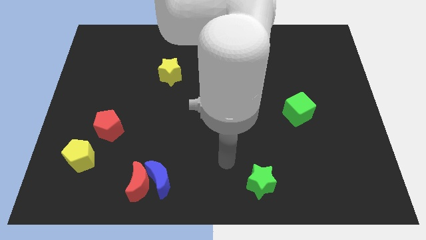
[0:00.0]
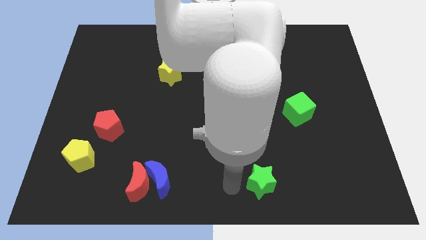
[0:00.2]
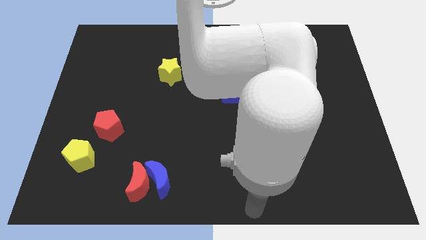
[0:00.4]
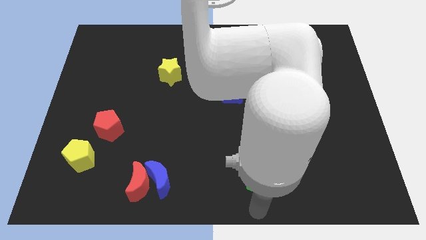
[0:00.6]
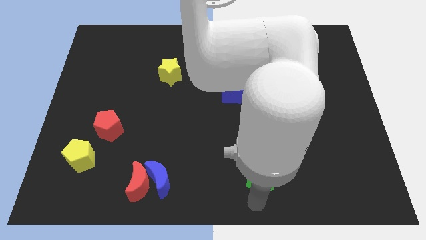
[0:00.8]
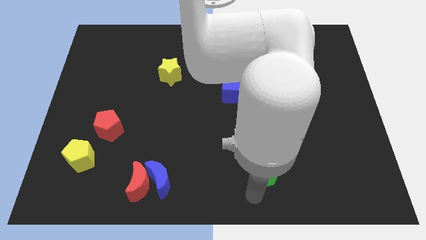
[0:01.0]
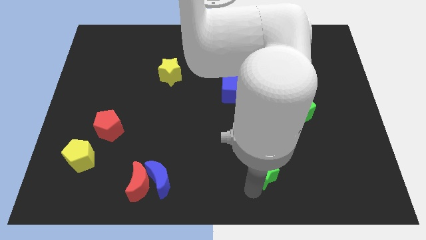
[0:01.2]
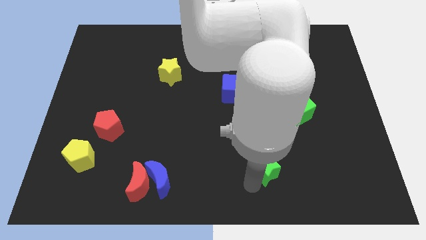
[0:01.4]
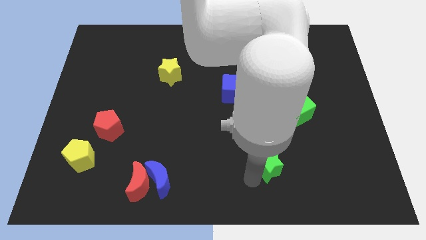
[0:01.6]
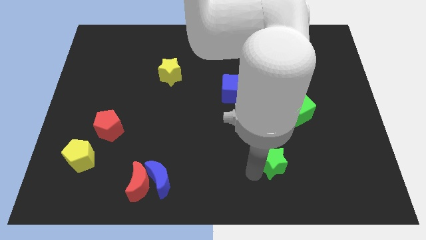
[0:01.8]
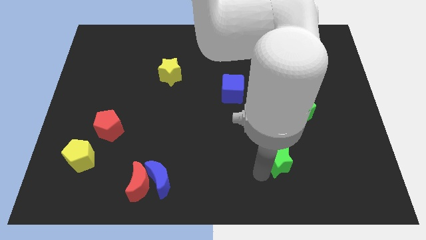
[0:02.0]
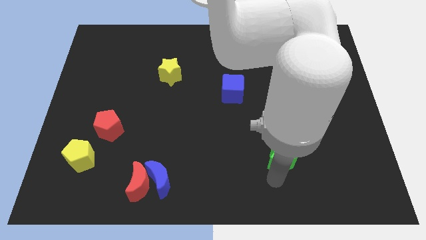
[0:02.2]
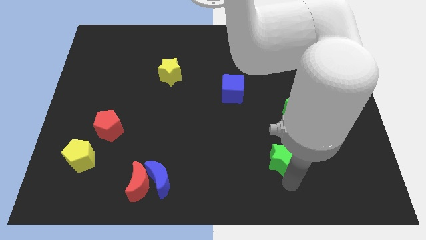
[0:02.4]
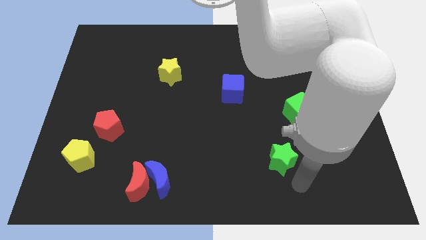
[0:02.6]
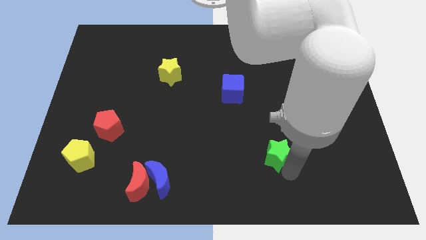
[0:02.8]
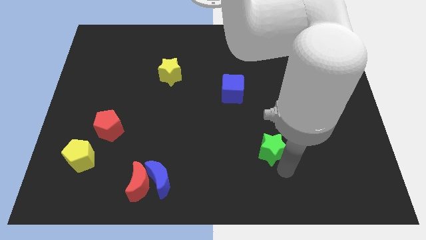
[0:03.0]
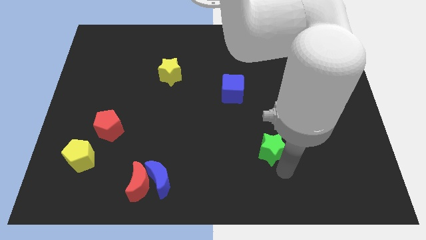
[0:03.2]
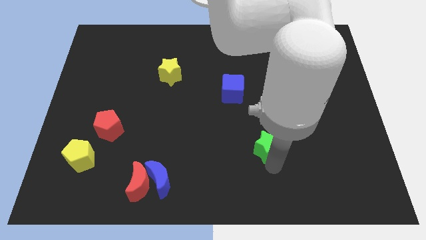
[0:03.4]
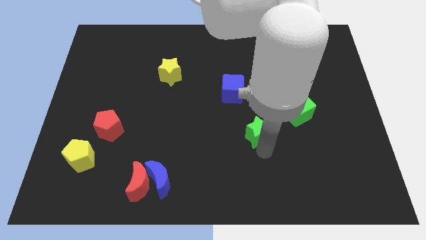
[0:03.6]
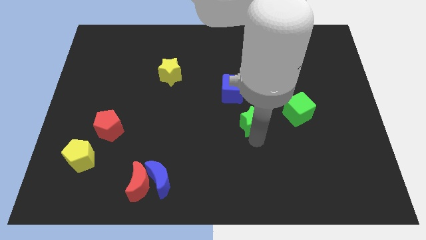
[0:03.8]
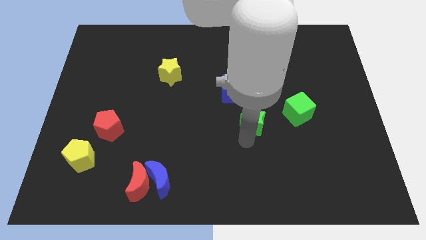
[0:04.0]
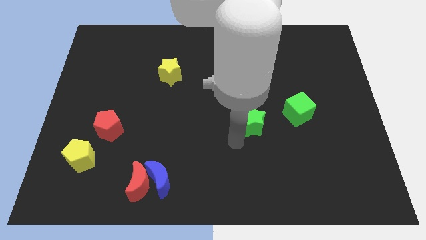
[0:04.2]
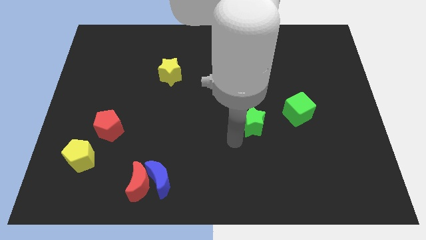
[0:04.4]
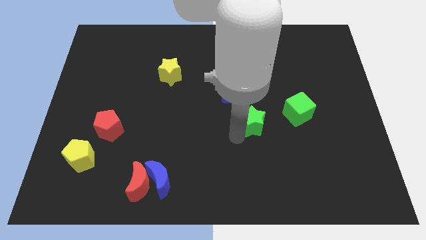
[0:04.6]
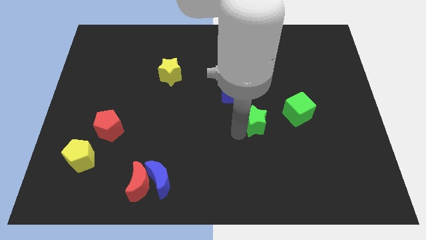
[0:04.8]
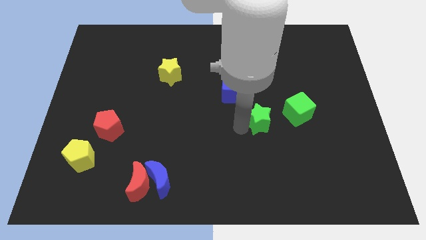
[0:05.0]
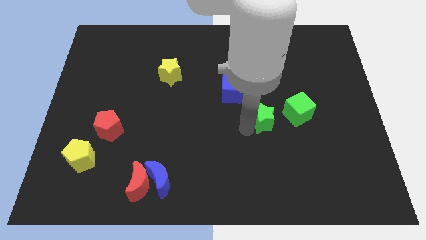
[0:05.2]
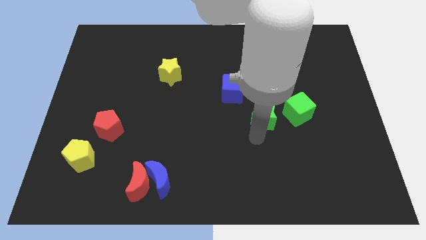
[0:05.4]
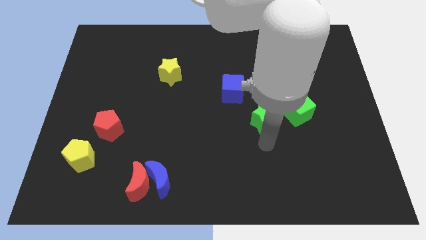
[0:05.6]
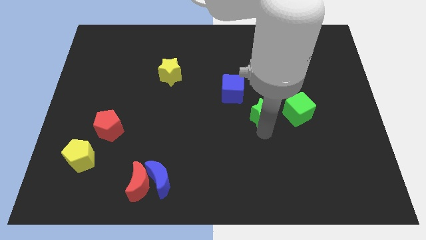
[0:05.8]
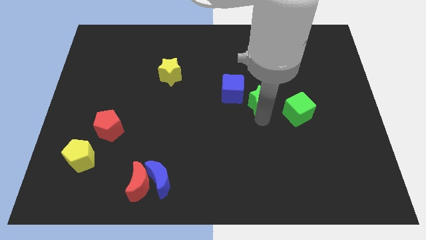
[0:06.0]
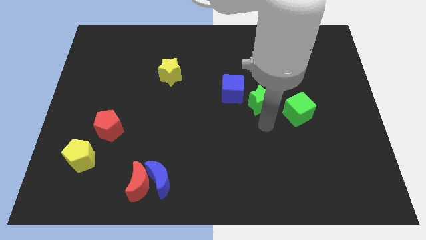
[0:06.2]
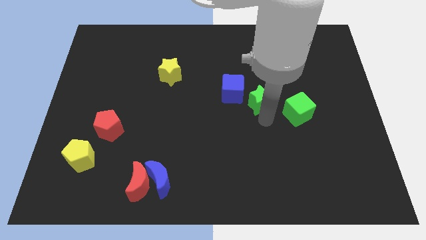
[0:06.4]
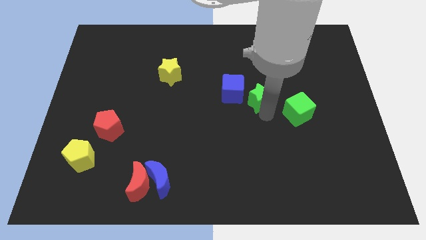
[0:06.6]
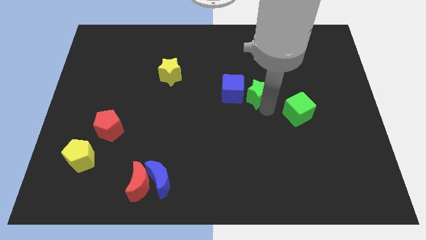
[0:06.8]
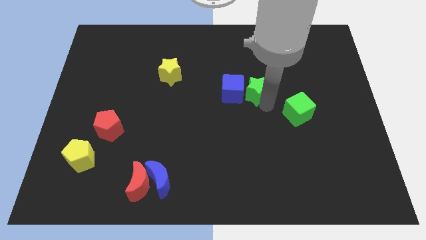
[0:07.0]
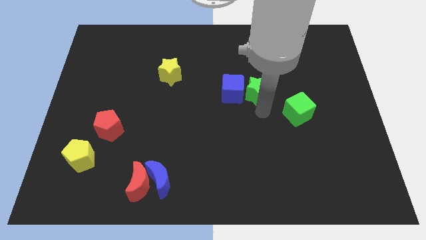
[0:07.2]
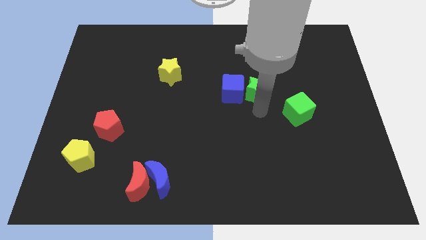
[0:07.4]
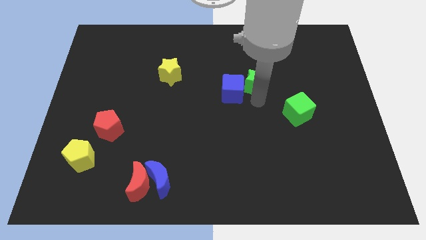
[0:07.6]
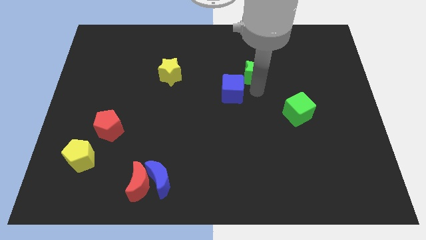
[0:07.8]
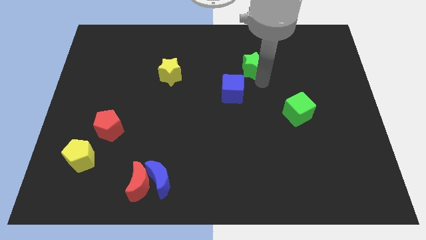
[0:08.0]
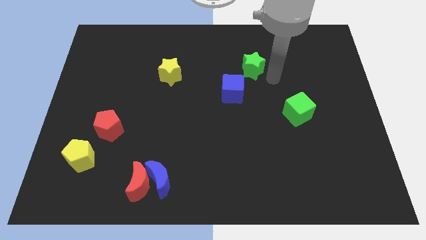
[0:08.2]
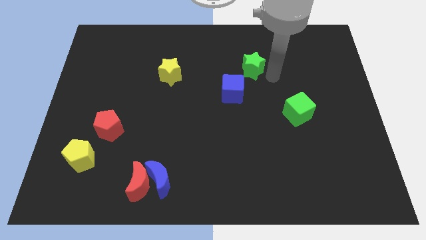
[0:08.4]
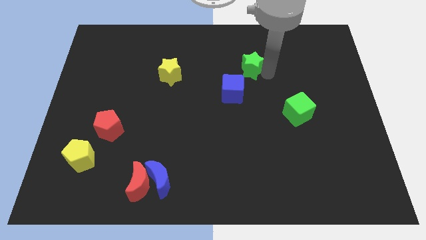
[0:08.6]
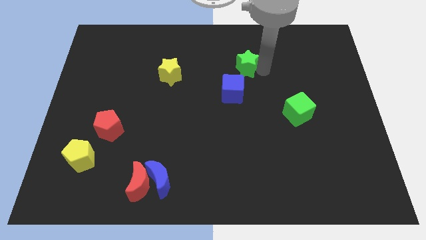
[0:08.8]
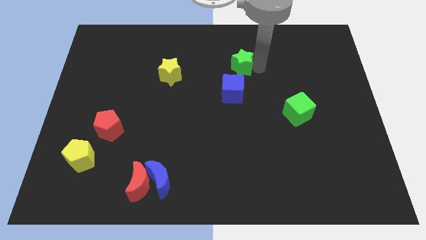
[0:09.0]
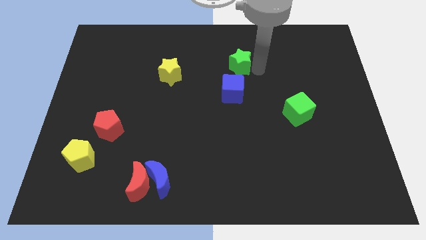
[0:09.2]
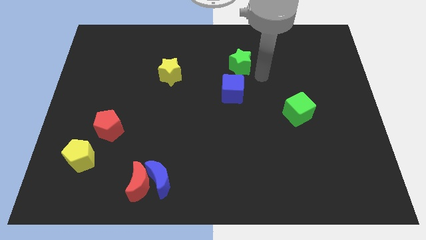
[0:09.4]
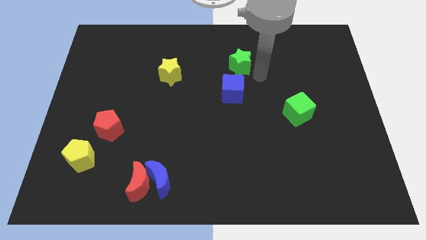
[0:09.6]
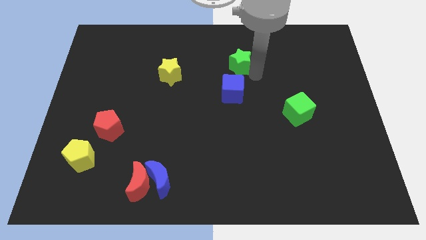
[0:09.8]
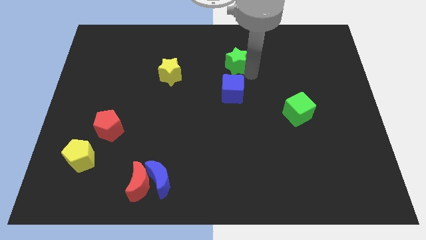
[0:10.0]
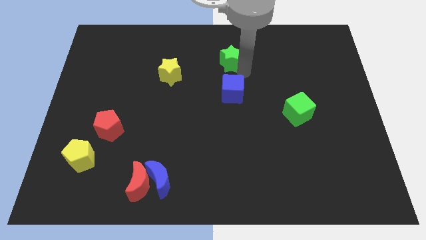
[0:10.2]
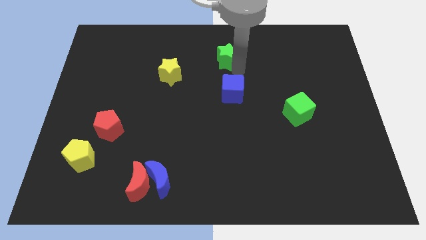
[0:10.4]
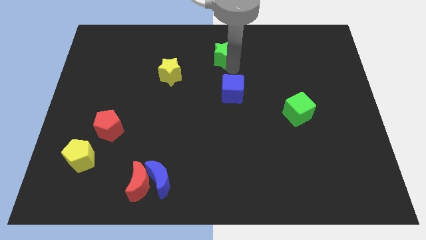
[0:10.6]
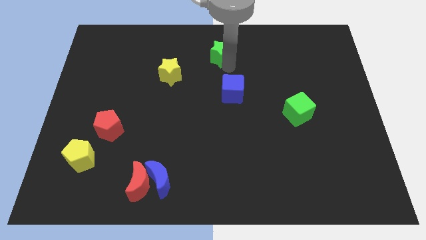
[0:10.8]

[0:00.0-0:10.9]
move the green star to the top
